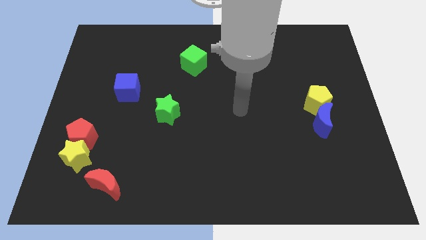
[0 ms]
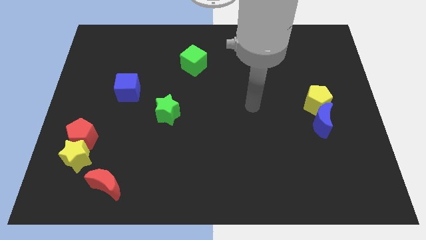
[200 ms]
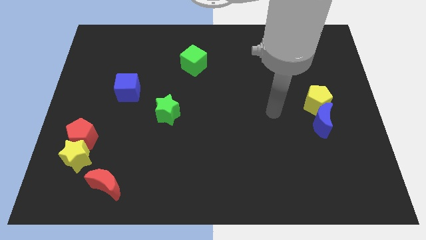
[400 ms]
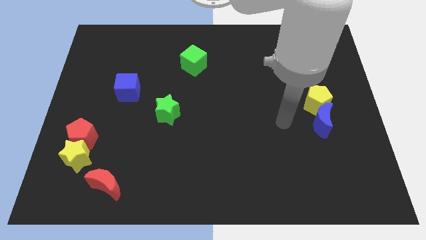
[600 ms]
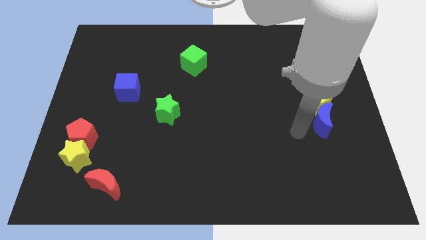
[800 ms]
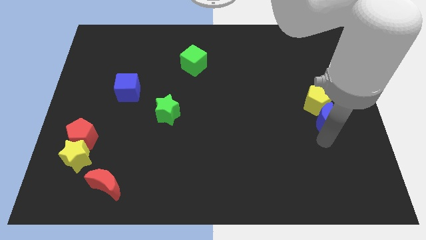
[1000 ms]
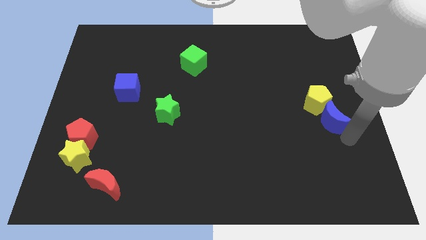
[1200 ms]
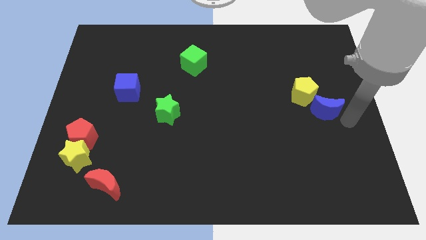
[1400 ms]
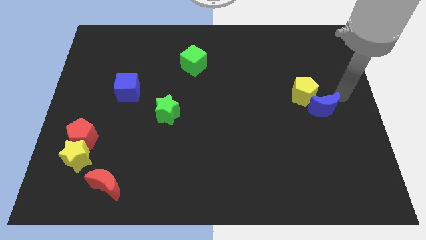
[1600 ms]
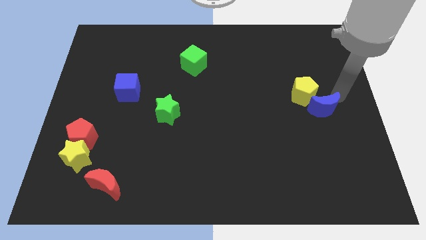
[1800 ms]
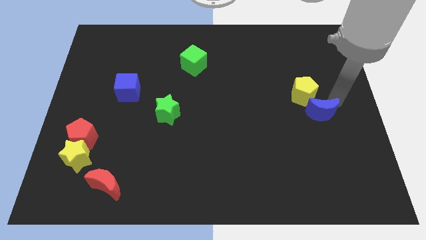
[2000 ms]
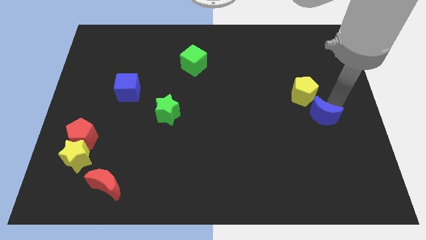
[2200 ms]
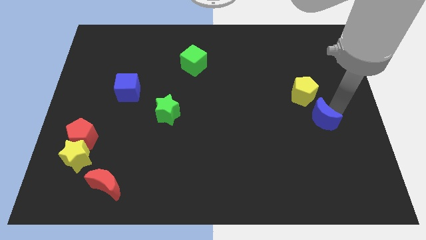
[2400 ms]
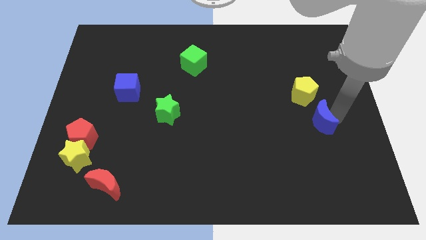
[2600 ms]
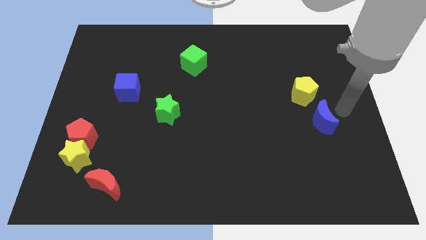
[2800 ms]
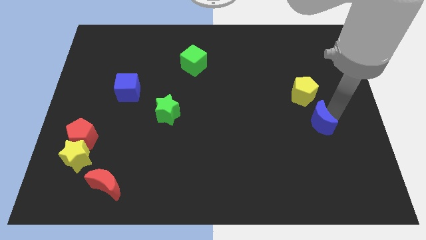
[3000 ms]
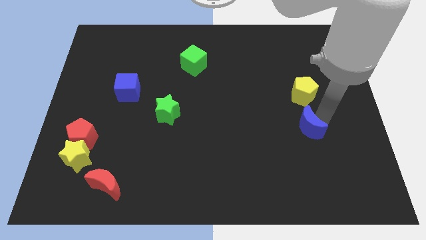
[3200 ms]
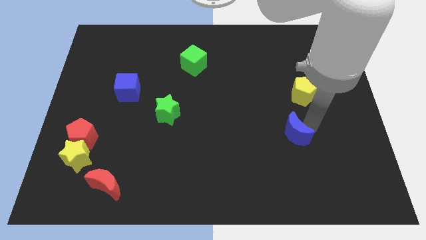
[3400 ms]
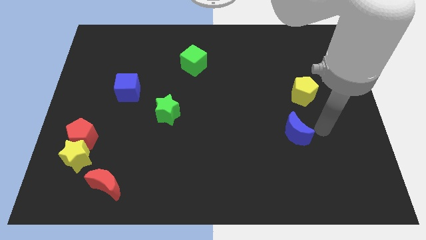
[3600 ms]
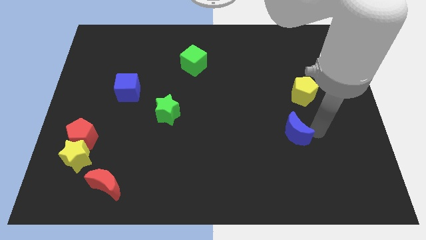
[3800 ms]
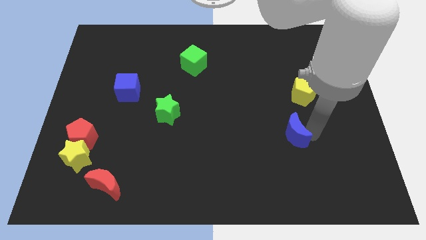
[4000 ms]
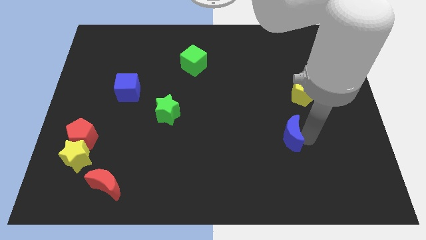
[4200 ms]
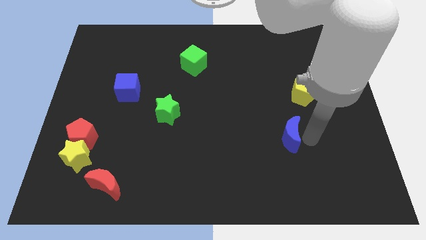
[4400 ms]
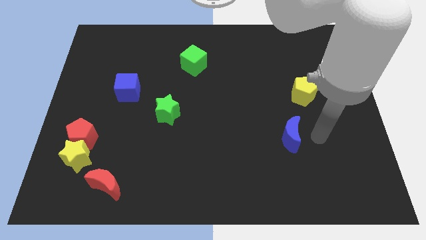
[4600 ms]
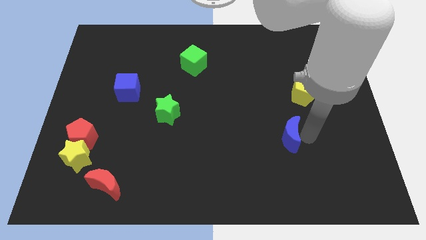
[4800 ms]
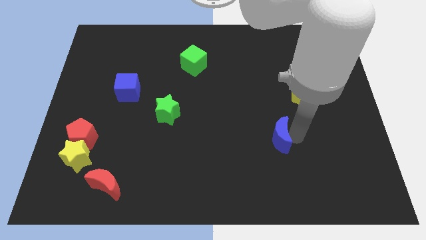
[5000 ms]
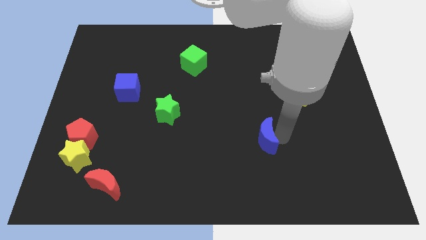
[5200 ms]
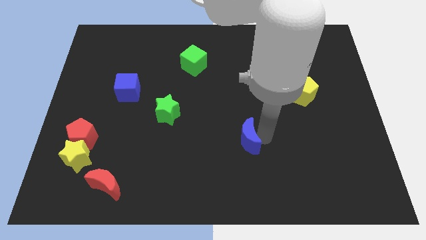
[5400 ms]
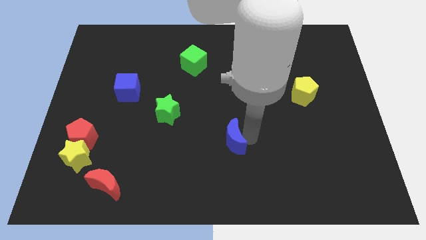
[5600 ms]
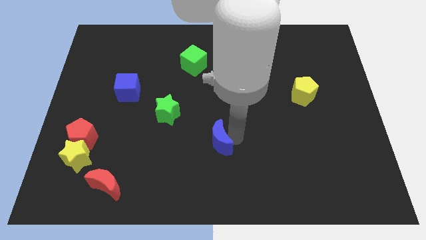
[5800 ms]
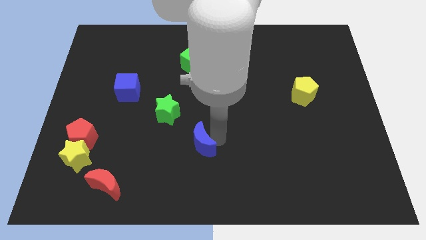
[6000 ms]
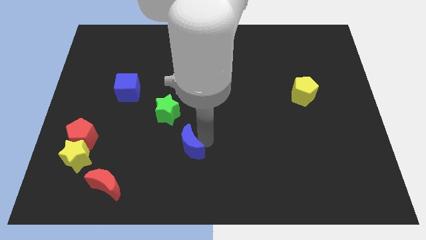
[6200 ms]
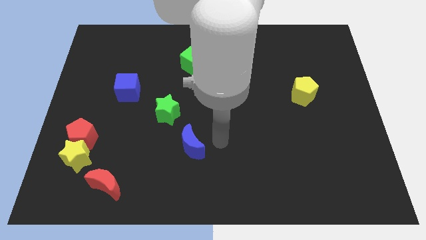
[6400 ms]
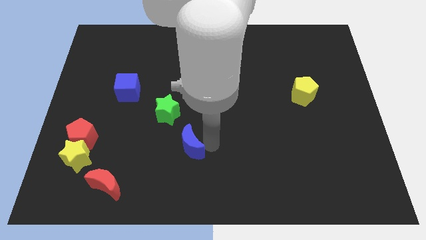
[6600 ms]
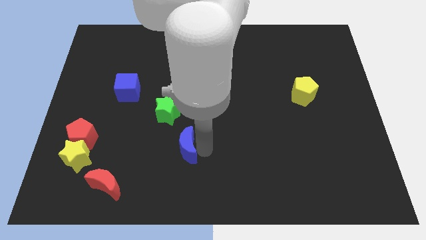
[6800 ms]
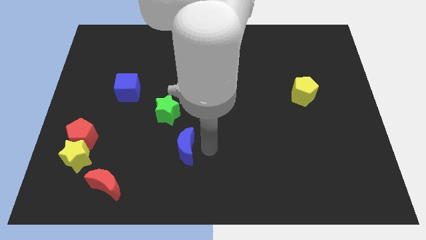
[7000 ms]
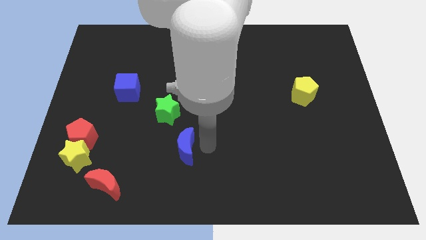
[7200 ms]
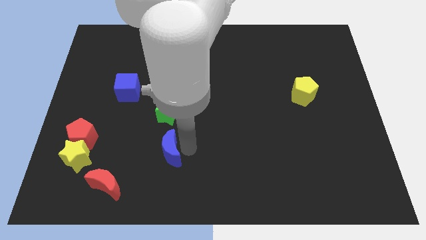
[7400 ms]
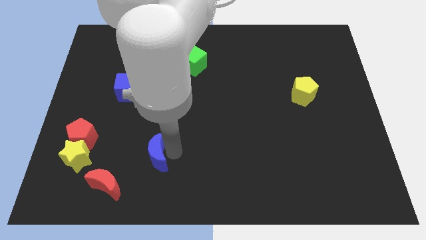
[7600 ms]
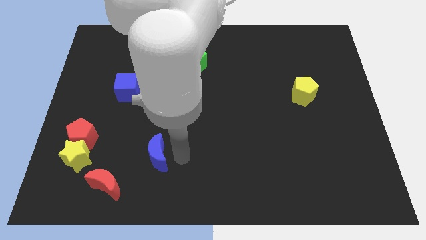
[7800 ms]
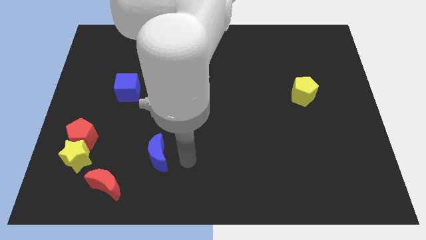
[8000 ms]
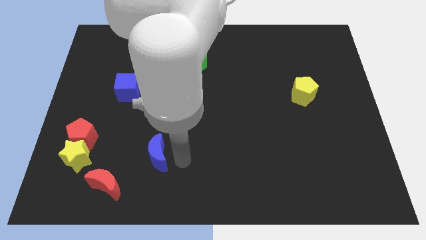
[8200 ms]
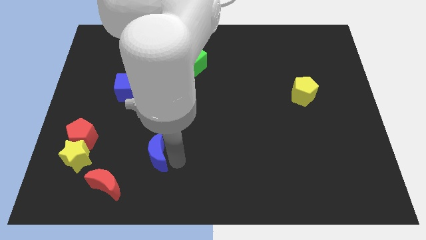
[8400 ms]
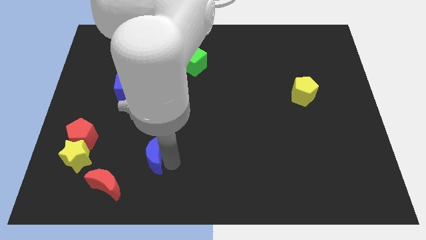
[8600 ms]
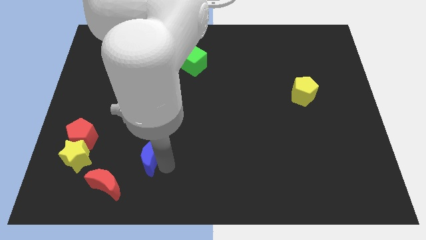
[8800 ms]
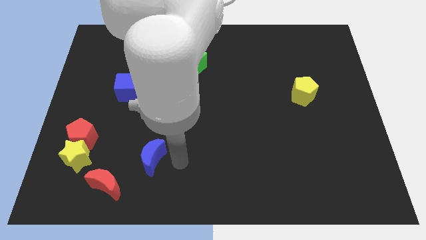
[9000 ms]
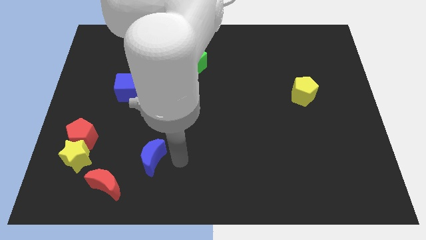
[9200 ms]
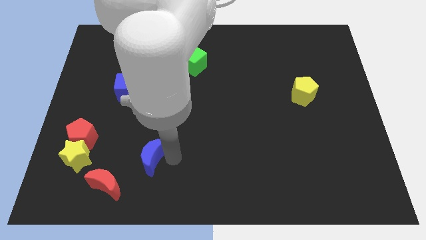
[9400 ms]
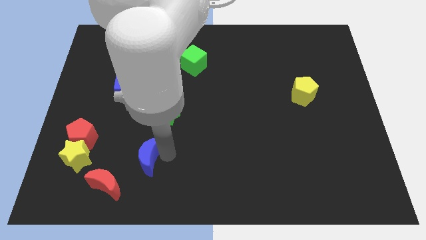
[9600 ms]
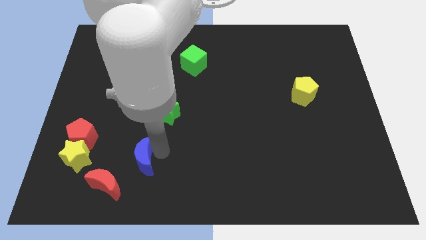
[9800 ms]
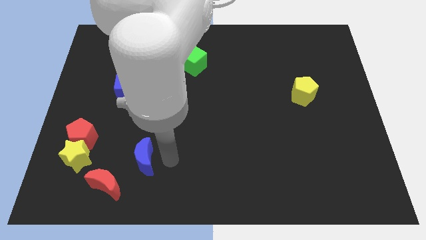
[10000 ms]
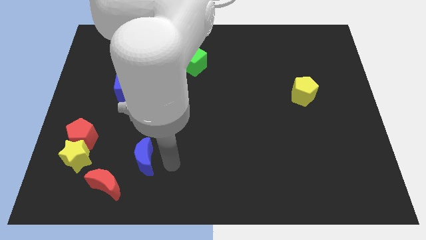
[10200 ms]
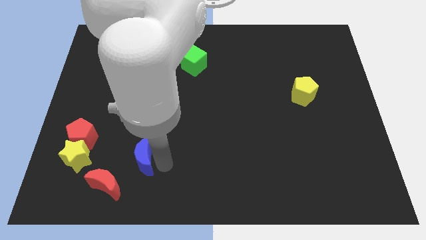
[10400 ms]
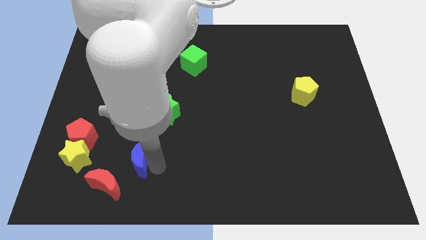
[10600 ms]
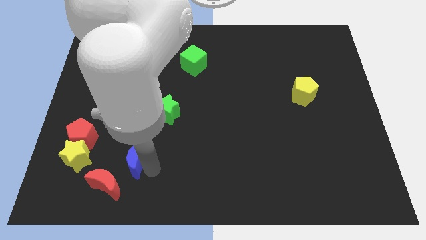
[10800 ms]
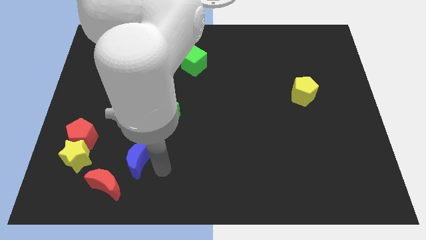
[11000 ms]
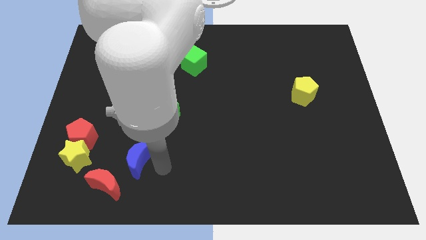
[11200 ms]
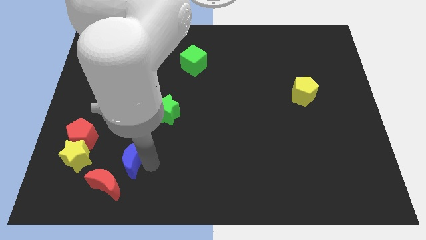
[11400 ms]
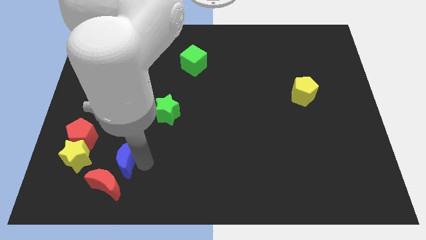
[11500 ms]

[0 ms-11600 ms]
push the blue moon diagonally down and to the right of the red pentagon

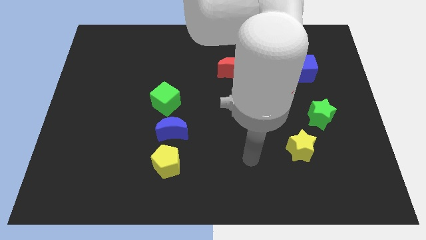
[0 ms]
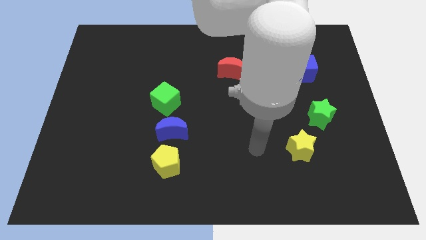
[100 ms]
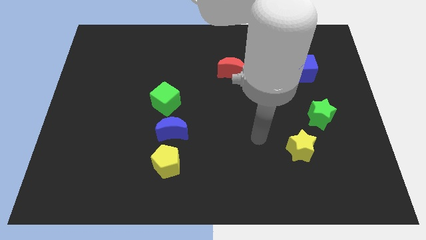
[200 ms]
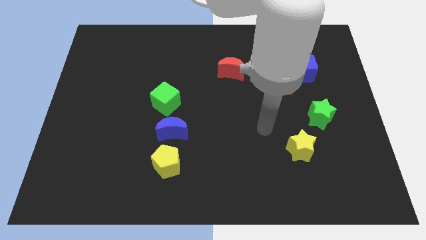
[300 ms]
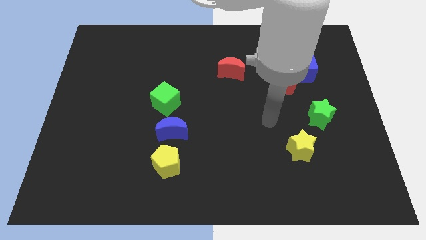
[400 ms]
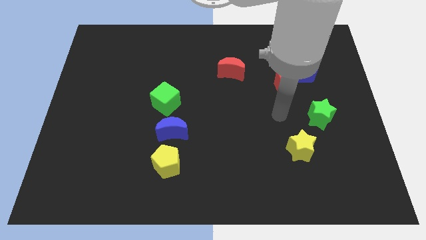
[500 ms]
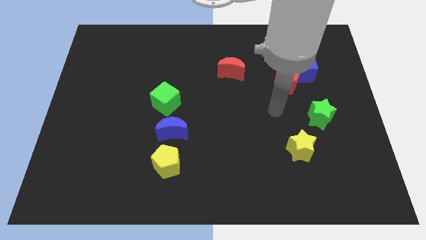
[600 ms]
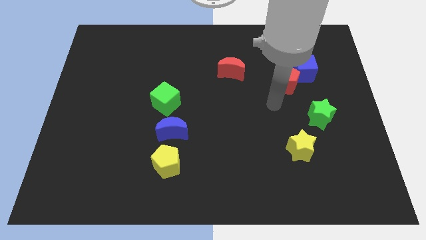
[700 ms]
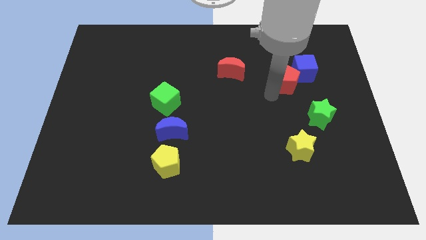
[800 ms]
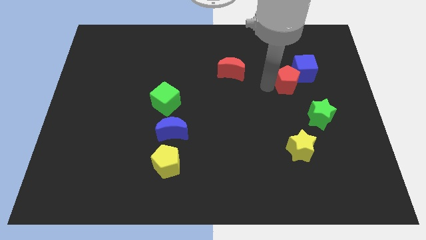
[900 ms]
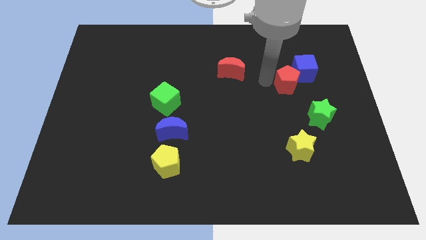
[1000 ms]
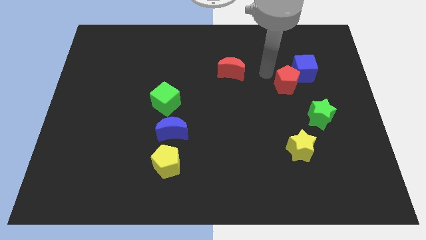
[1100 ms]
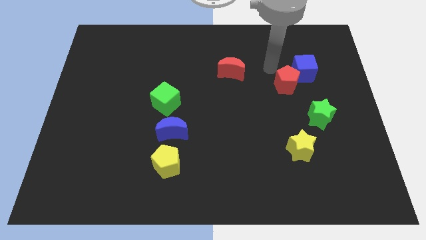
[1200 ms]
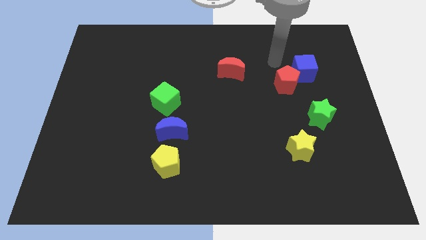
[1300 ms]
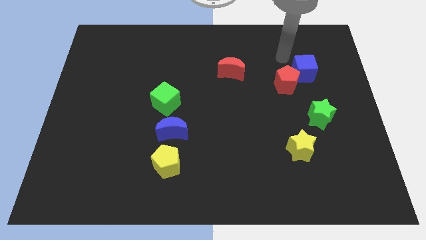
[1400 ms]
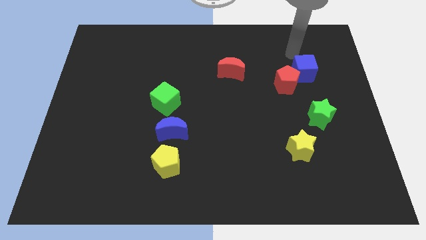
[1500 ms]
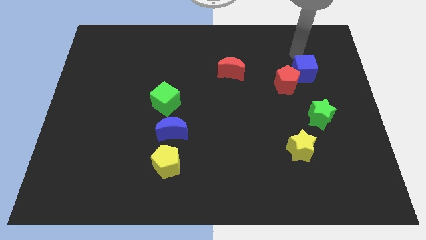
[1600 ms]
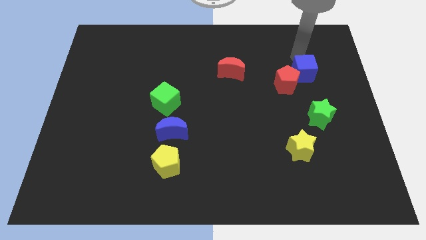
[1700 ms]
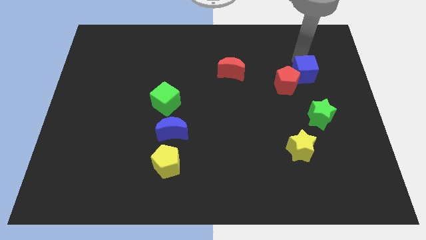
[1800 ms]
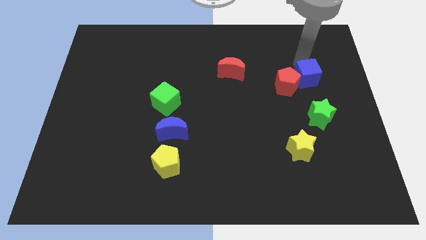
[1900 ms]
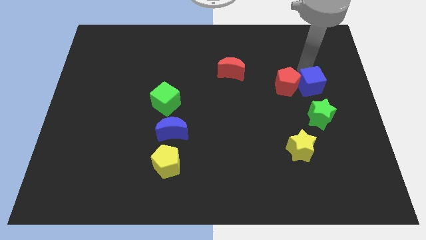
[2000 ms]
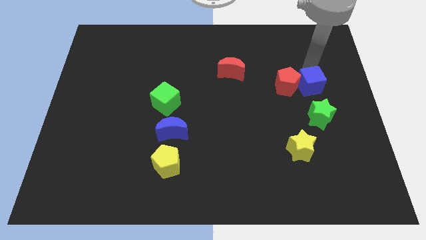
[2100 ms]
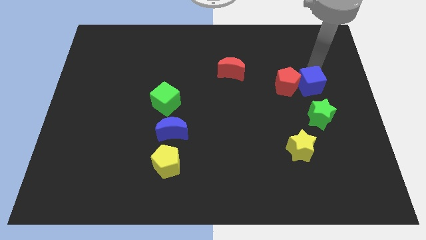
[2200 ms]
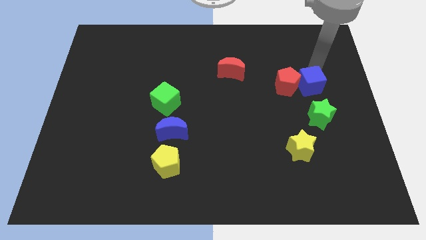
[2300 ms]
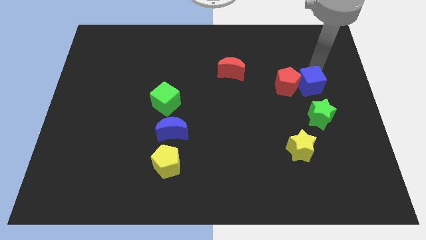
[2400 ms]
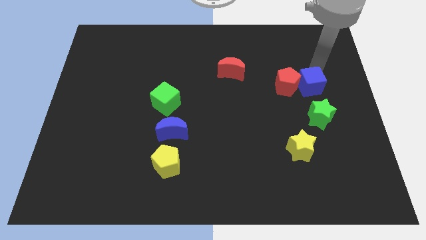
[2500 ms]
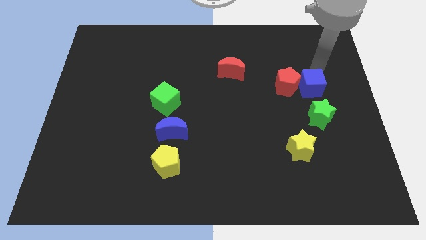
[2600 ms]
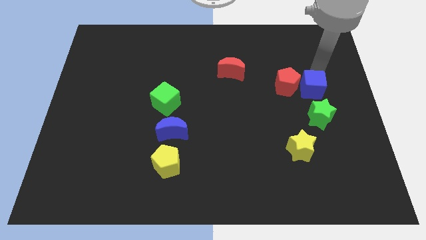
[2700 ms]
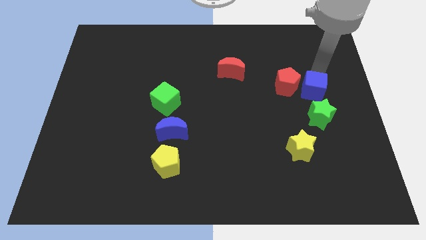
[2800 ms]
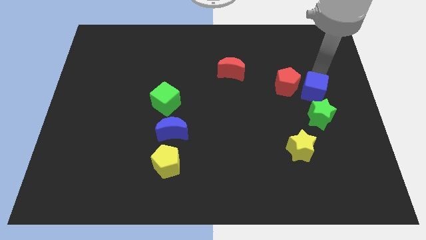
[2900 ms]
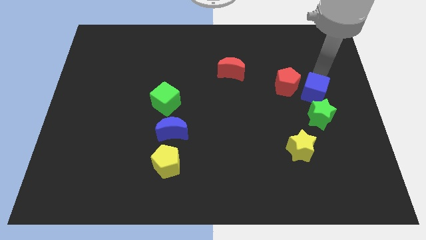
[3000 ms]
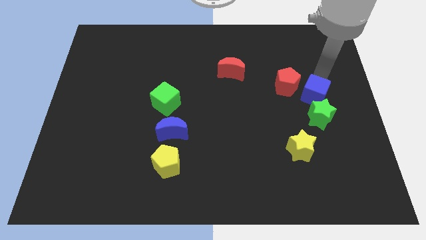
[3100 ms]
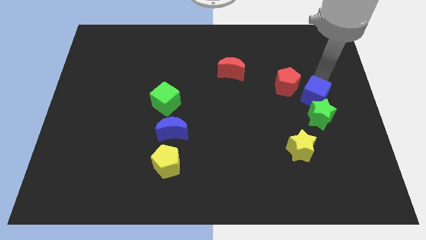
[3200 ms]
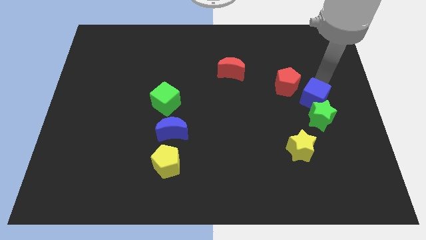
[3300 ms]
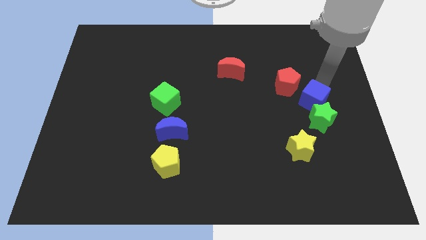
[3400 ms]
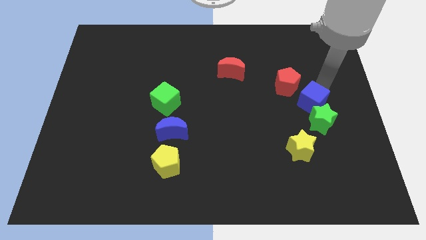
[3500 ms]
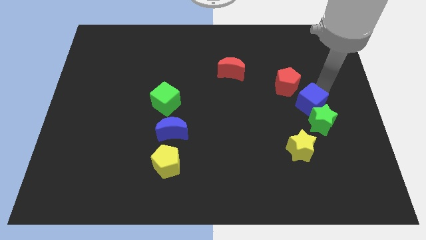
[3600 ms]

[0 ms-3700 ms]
slide the blue cube above the yellow star
